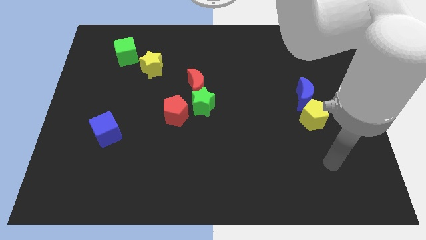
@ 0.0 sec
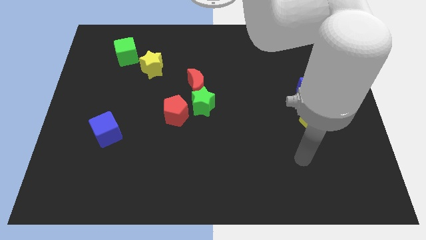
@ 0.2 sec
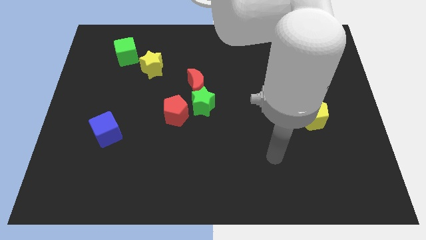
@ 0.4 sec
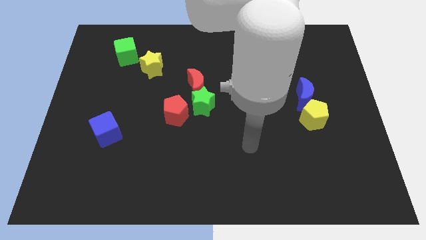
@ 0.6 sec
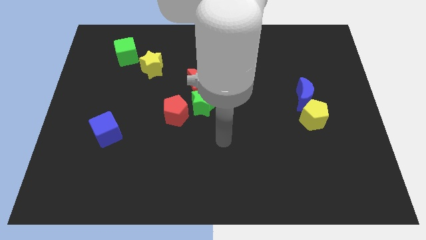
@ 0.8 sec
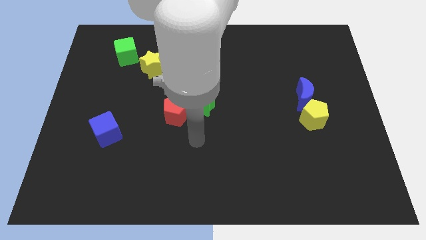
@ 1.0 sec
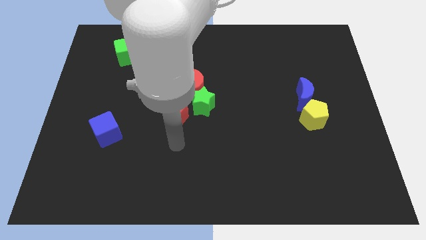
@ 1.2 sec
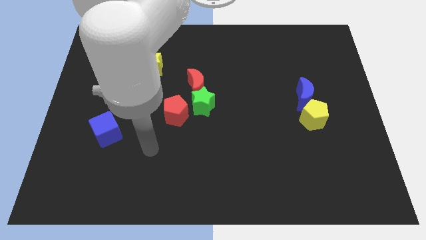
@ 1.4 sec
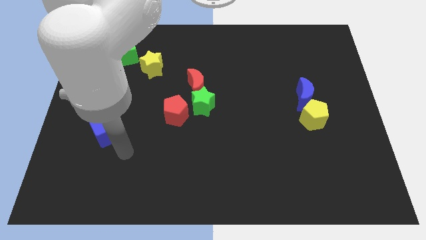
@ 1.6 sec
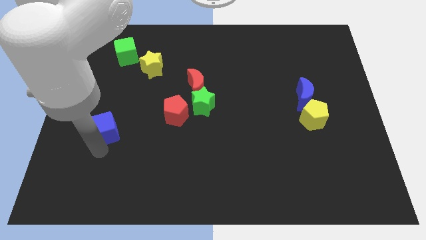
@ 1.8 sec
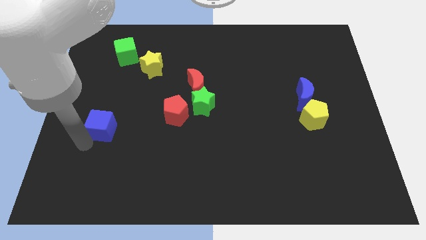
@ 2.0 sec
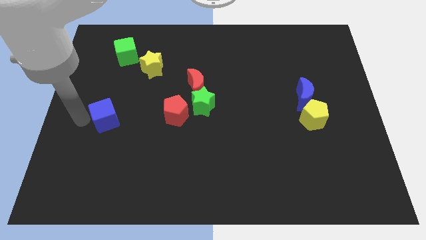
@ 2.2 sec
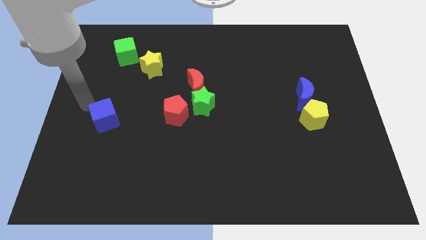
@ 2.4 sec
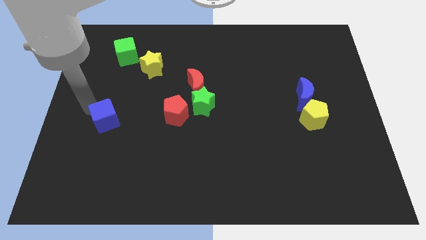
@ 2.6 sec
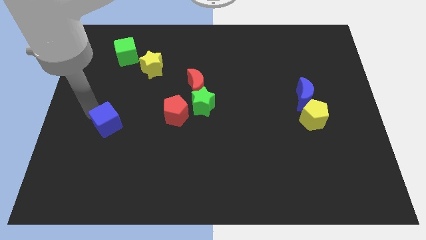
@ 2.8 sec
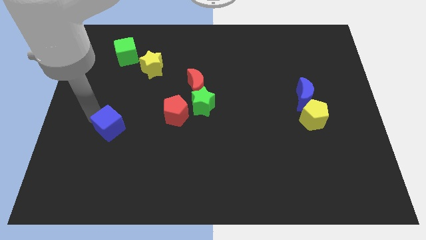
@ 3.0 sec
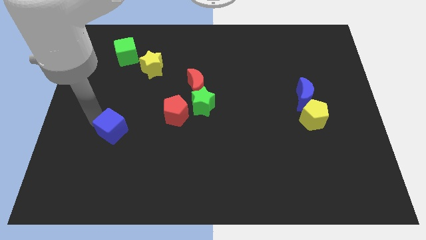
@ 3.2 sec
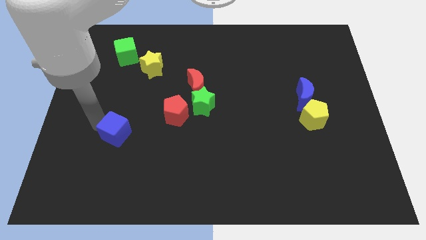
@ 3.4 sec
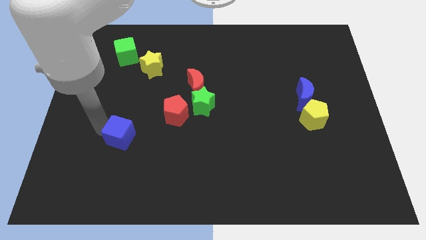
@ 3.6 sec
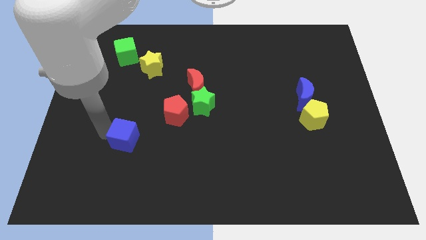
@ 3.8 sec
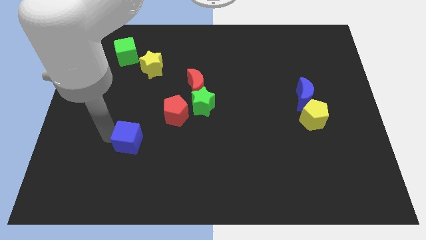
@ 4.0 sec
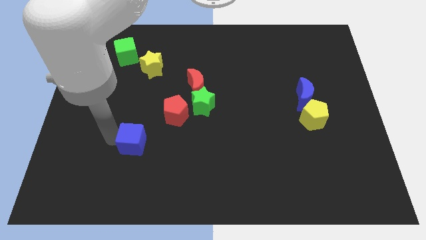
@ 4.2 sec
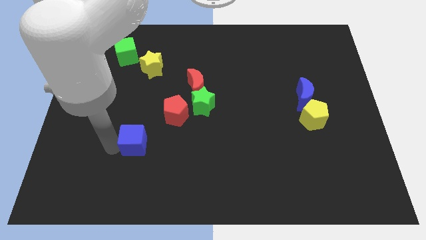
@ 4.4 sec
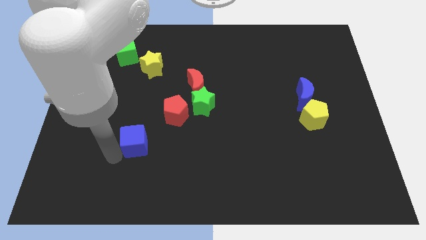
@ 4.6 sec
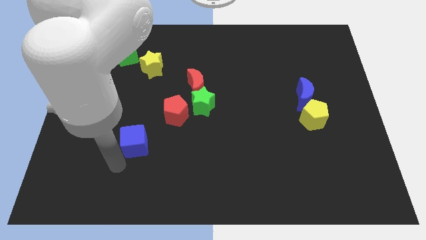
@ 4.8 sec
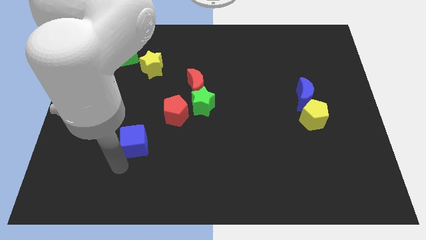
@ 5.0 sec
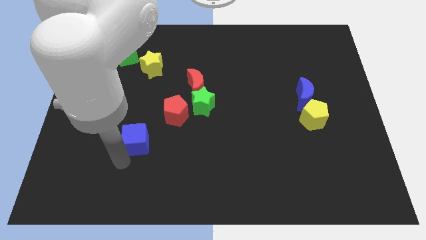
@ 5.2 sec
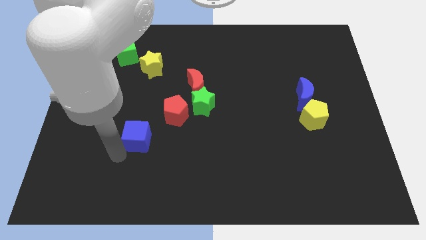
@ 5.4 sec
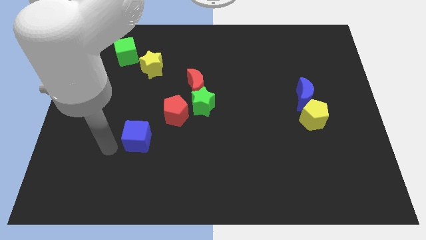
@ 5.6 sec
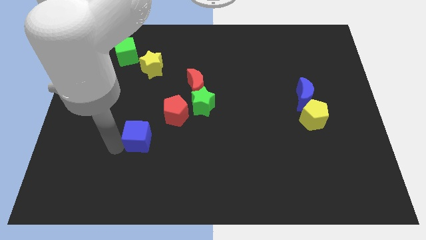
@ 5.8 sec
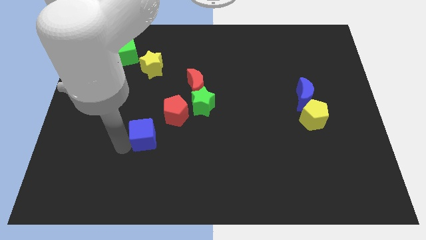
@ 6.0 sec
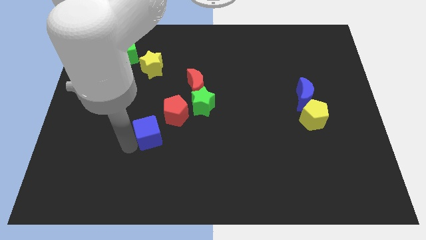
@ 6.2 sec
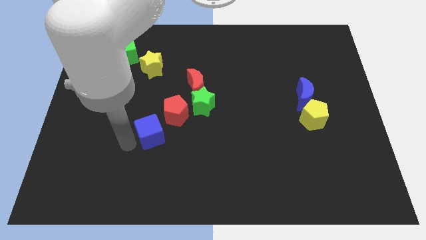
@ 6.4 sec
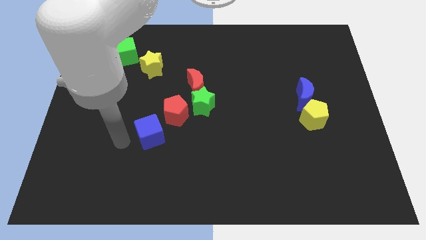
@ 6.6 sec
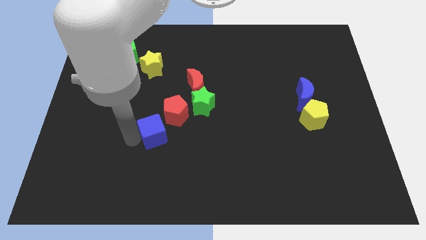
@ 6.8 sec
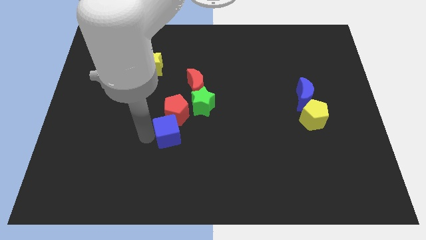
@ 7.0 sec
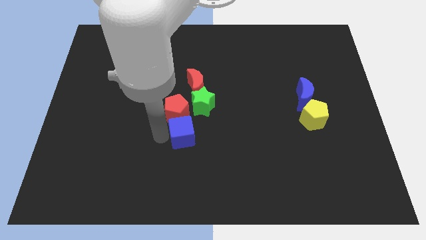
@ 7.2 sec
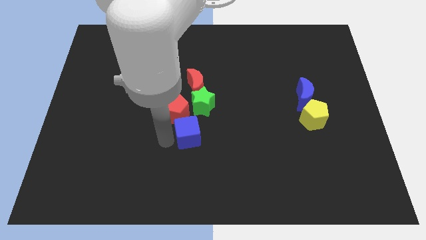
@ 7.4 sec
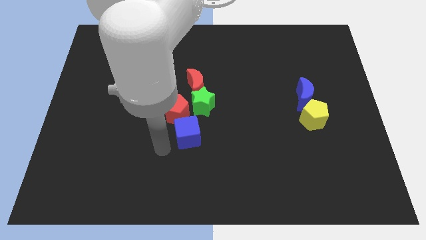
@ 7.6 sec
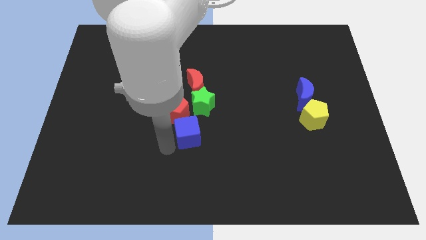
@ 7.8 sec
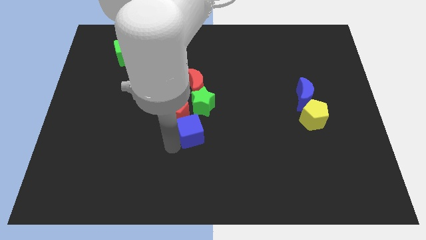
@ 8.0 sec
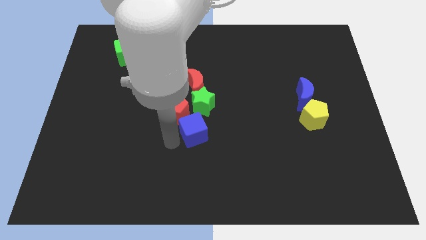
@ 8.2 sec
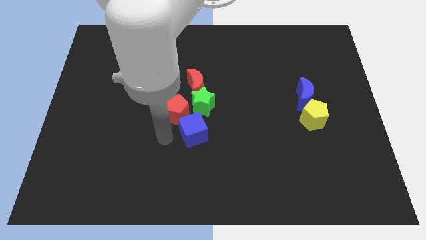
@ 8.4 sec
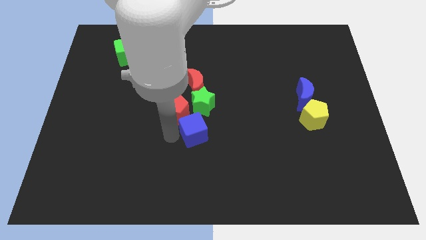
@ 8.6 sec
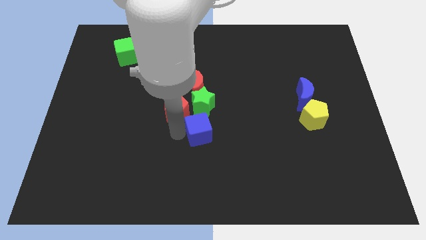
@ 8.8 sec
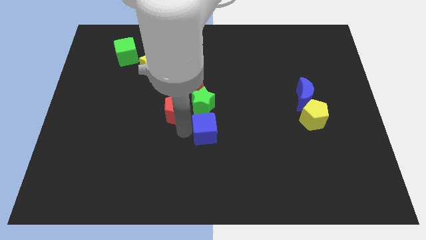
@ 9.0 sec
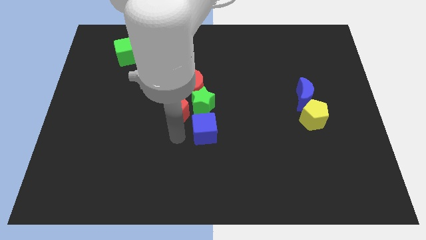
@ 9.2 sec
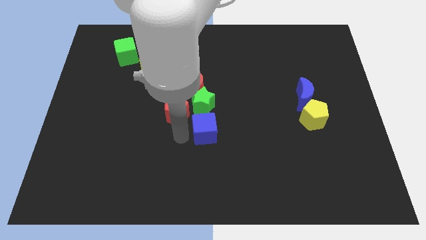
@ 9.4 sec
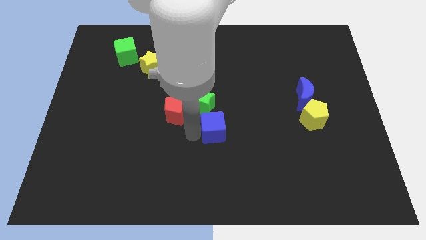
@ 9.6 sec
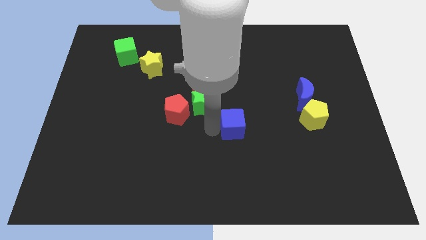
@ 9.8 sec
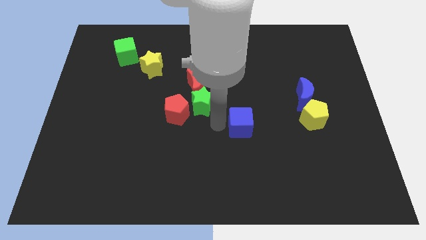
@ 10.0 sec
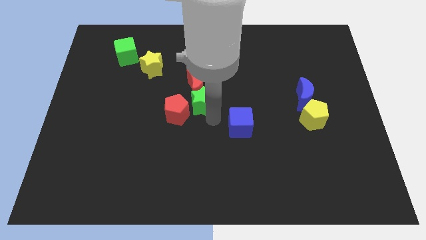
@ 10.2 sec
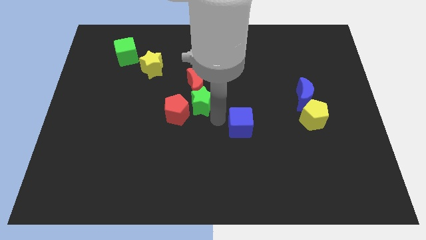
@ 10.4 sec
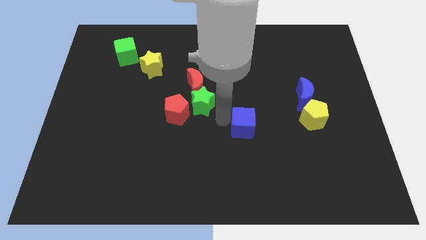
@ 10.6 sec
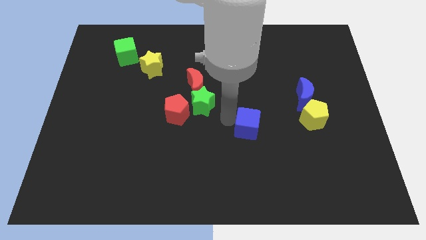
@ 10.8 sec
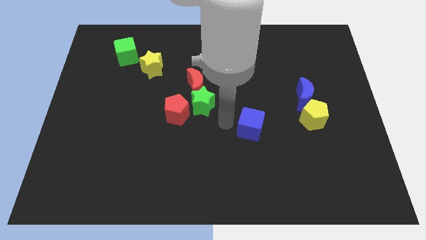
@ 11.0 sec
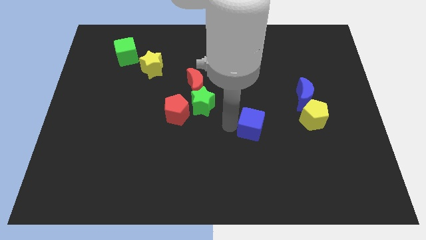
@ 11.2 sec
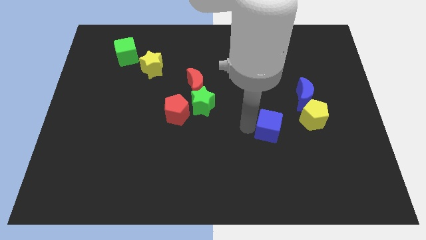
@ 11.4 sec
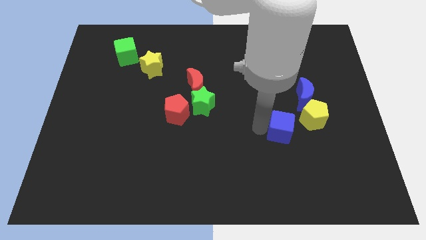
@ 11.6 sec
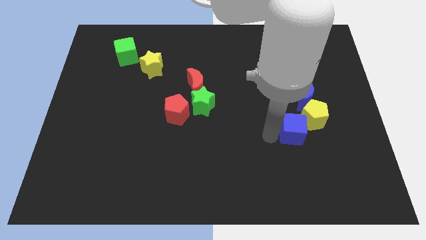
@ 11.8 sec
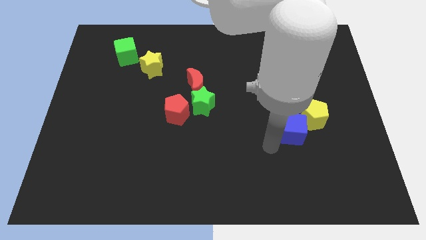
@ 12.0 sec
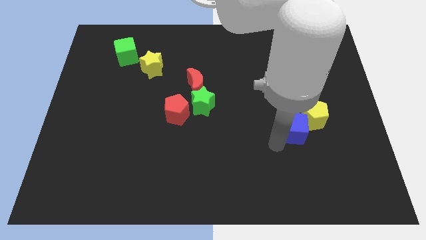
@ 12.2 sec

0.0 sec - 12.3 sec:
move the blue cube to the yellow pentagon
